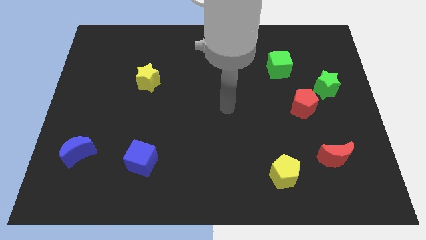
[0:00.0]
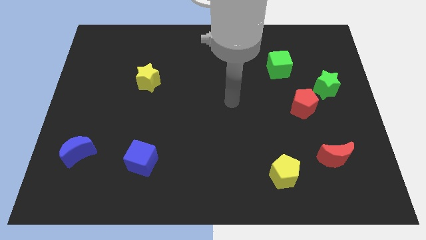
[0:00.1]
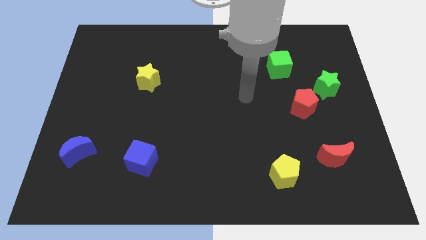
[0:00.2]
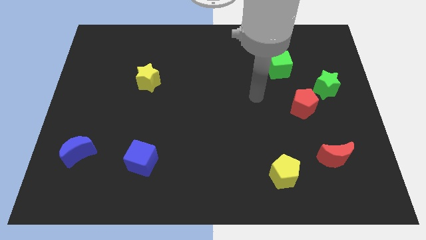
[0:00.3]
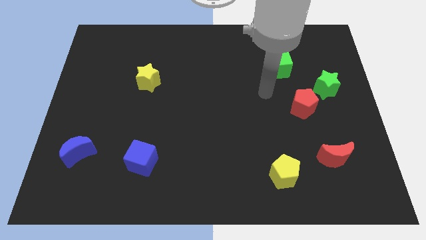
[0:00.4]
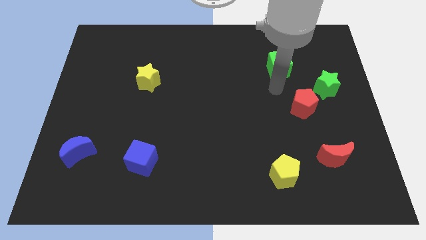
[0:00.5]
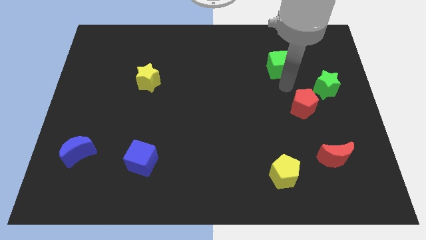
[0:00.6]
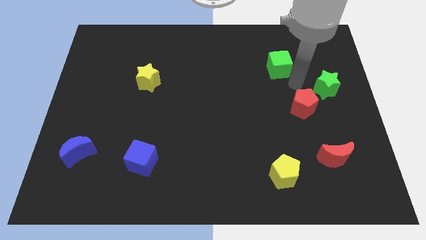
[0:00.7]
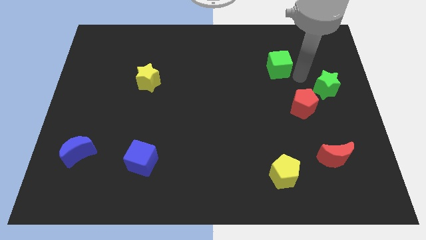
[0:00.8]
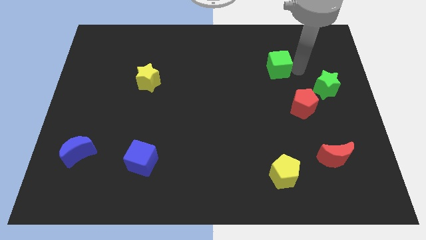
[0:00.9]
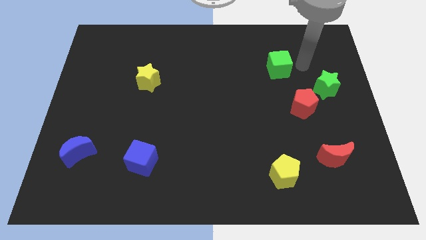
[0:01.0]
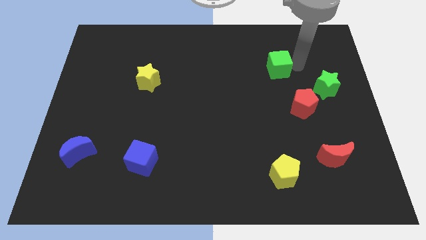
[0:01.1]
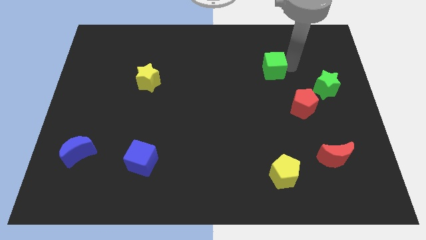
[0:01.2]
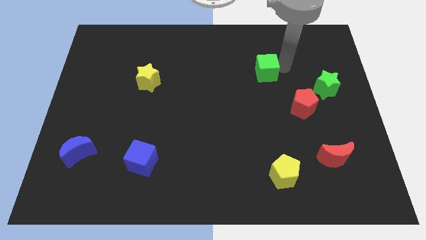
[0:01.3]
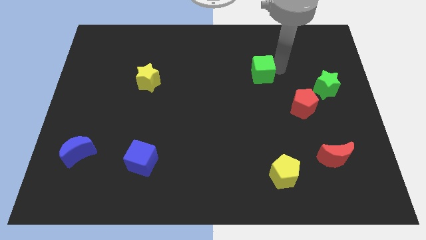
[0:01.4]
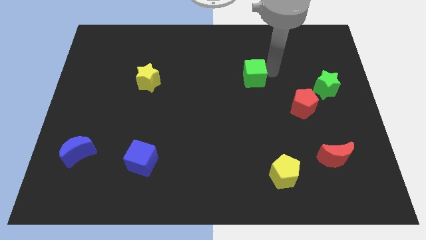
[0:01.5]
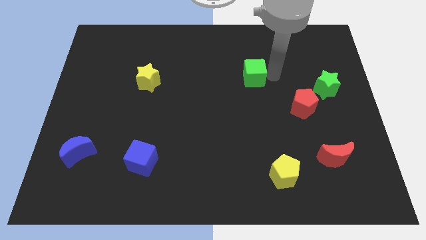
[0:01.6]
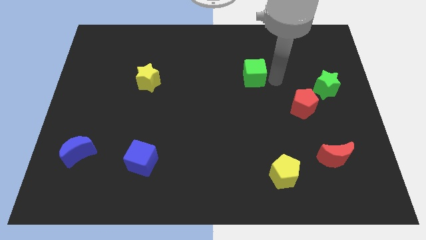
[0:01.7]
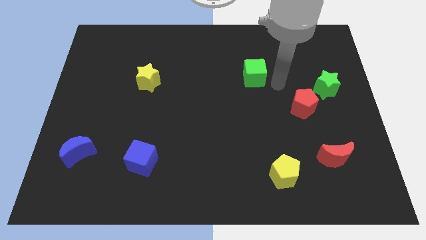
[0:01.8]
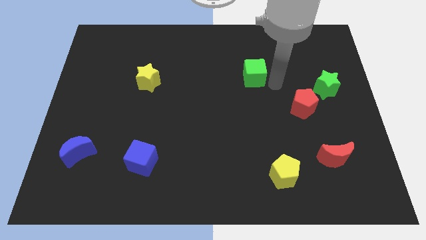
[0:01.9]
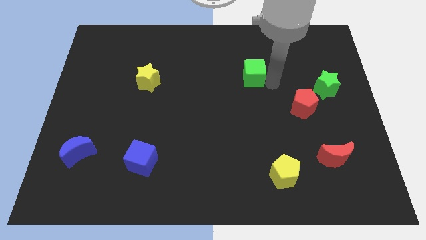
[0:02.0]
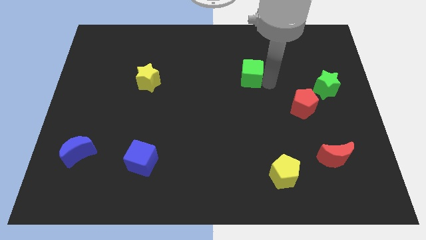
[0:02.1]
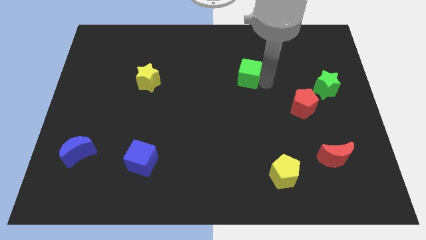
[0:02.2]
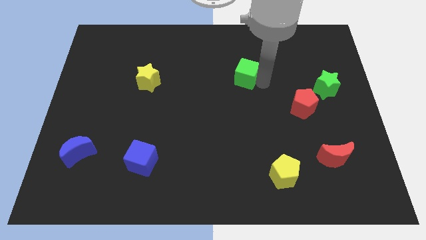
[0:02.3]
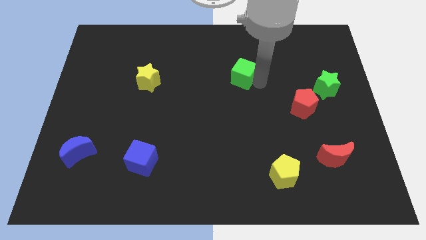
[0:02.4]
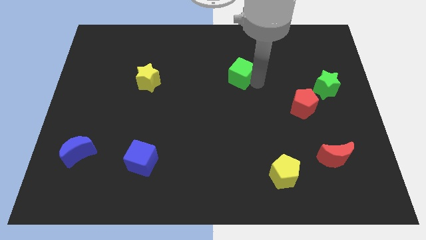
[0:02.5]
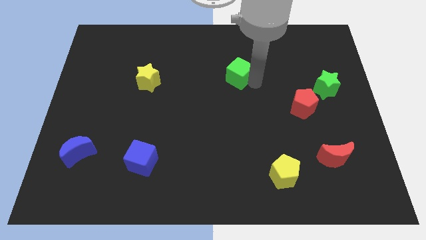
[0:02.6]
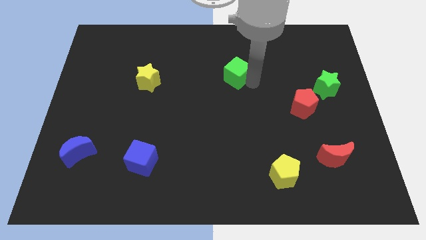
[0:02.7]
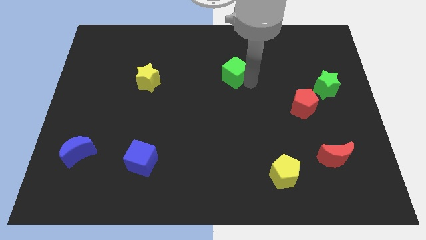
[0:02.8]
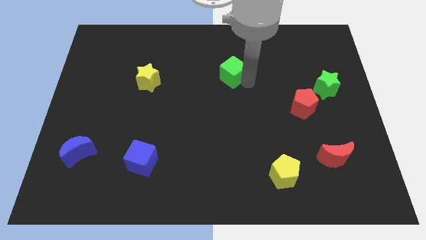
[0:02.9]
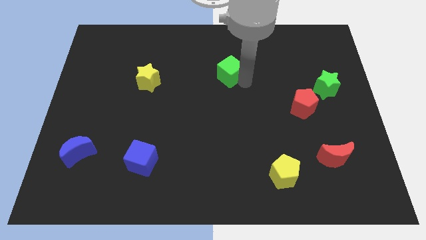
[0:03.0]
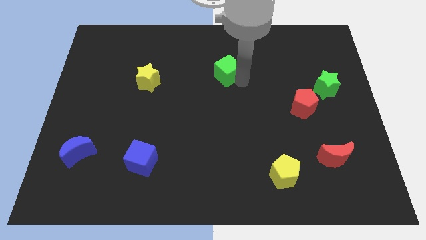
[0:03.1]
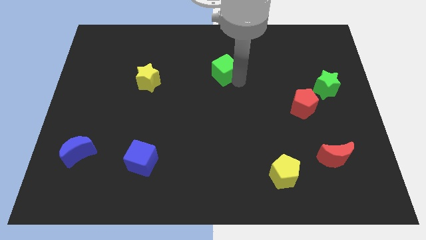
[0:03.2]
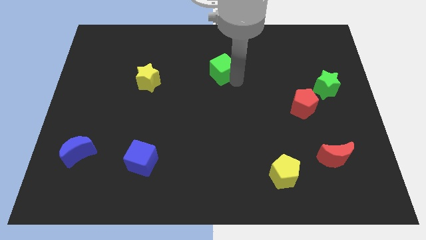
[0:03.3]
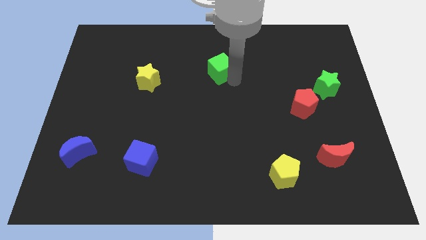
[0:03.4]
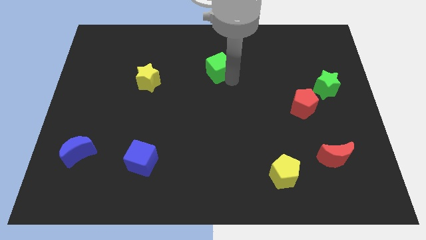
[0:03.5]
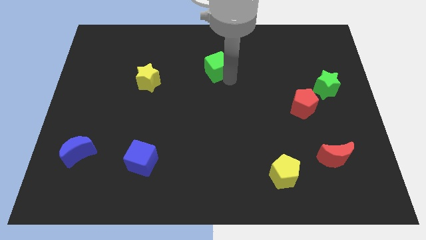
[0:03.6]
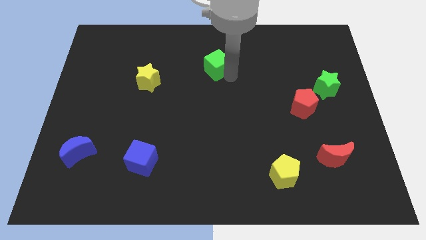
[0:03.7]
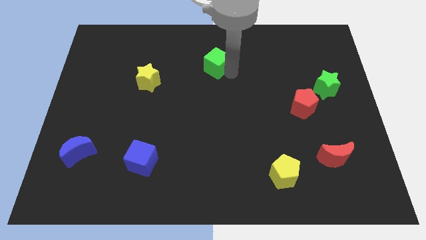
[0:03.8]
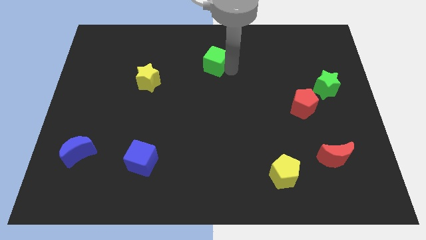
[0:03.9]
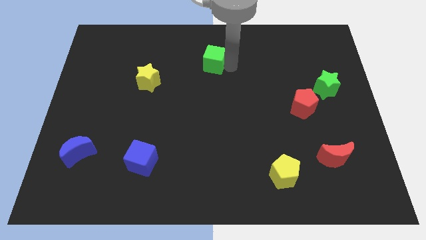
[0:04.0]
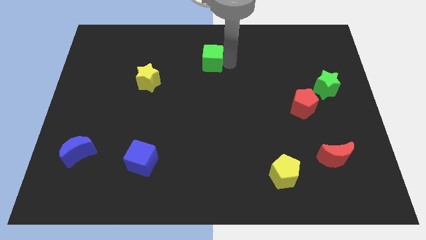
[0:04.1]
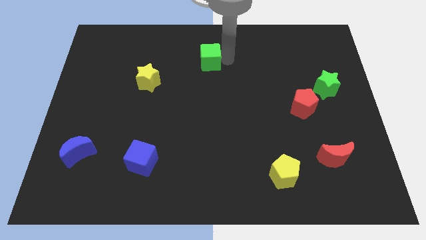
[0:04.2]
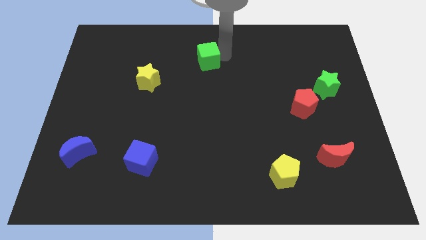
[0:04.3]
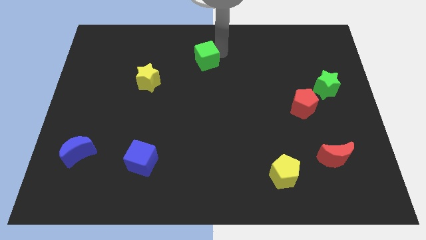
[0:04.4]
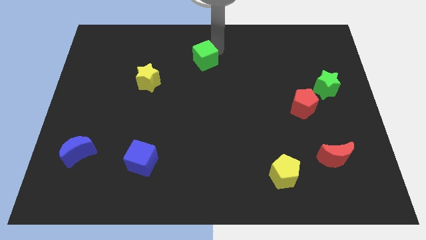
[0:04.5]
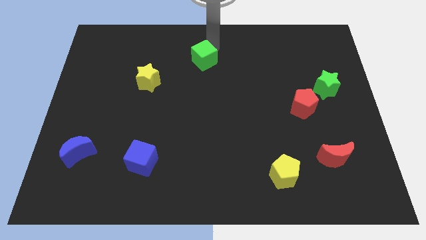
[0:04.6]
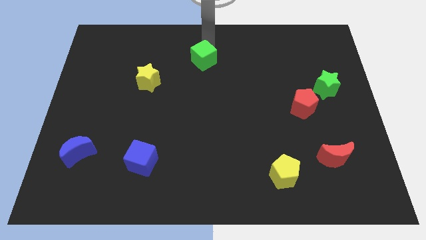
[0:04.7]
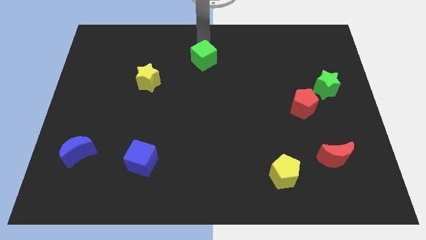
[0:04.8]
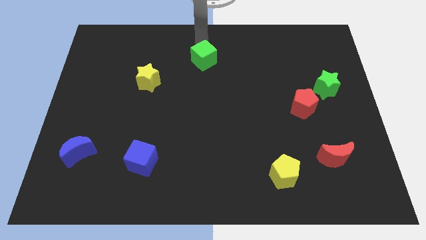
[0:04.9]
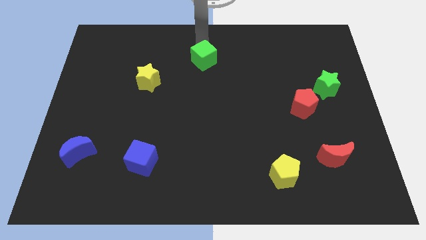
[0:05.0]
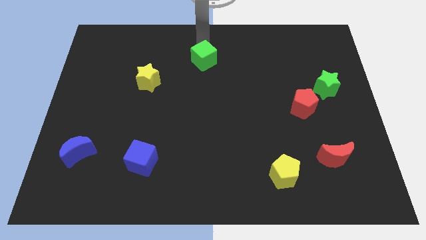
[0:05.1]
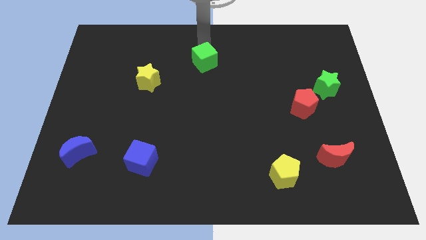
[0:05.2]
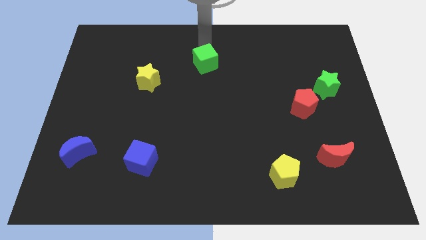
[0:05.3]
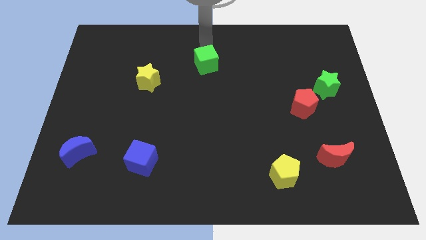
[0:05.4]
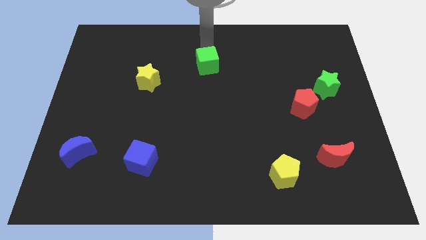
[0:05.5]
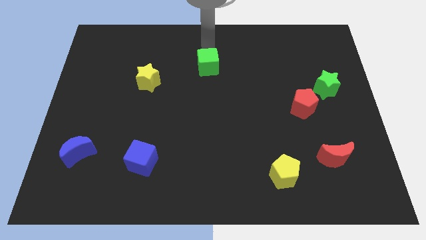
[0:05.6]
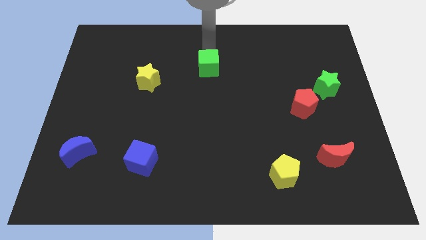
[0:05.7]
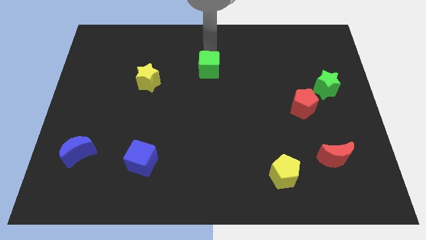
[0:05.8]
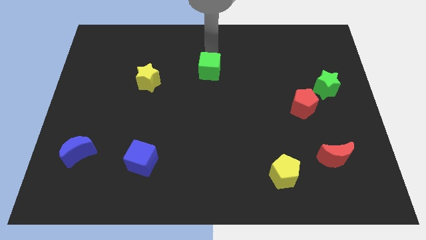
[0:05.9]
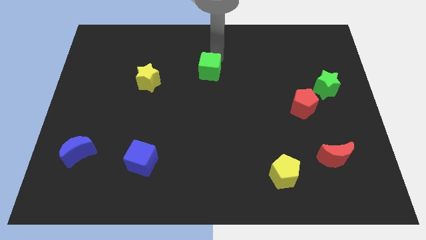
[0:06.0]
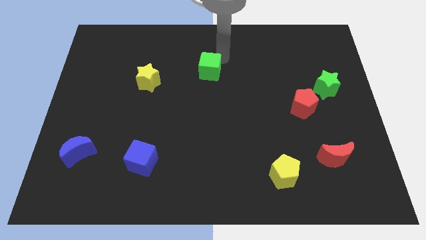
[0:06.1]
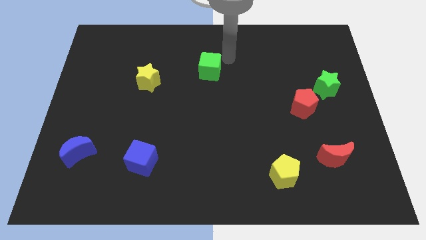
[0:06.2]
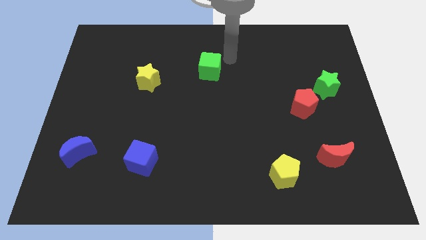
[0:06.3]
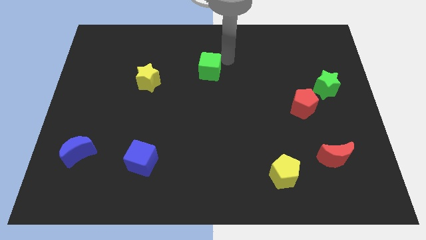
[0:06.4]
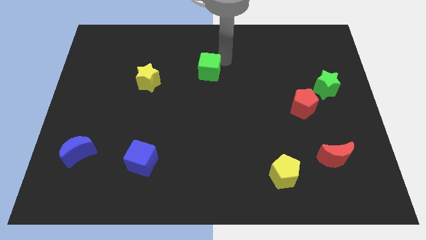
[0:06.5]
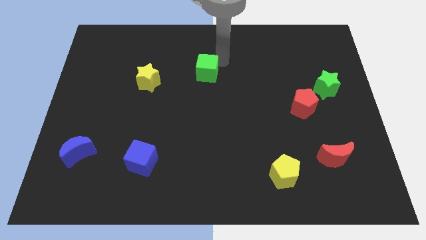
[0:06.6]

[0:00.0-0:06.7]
push the green cube to the right side of the yellow star
